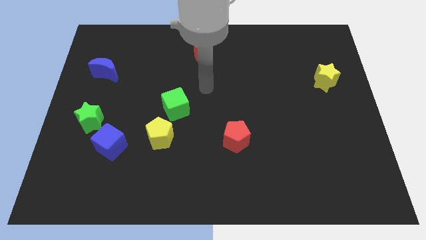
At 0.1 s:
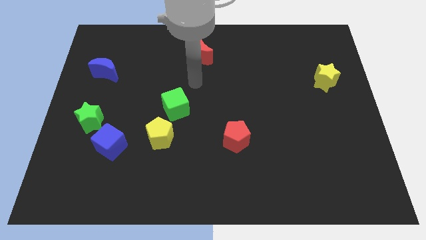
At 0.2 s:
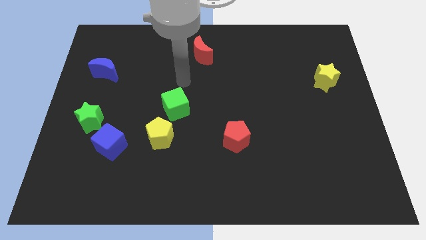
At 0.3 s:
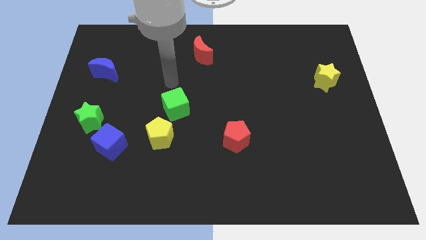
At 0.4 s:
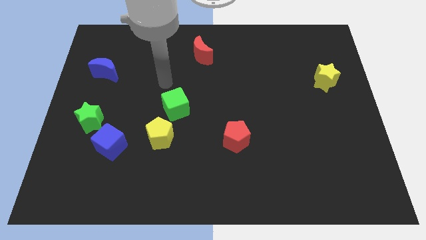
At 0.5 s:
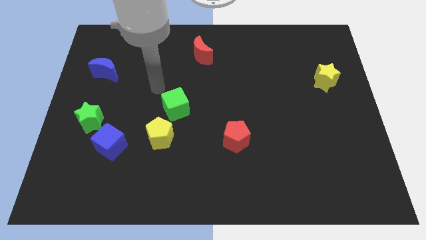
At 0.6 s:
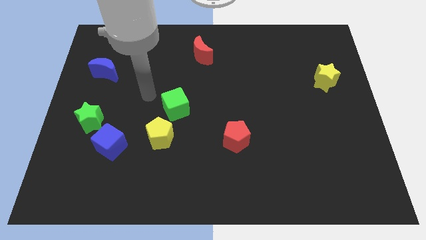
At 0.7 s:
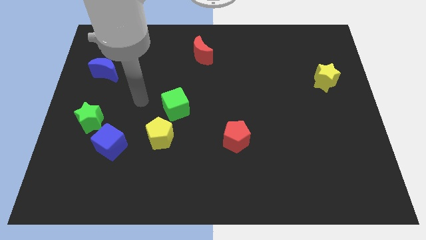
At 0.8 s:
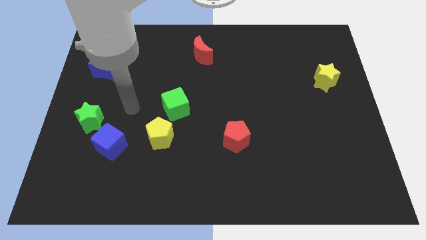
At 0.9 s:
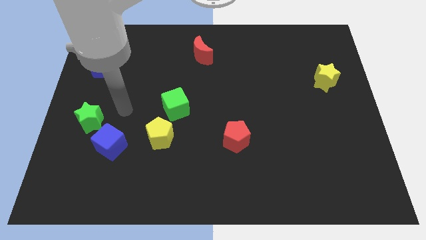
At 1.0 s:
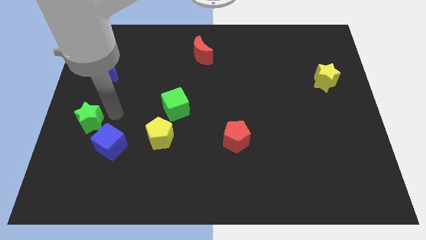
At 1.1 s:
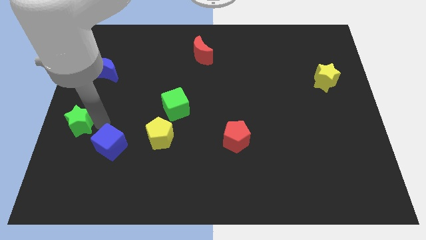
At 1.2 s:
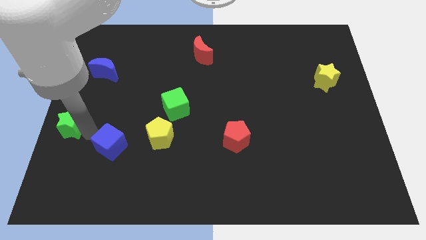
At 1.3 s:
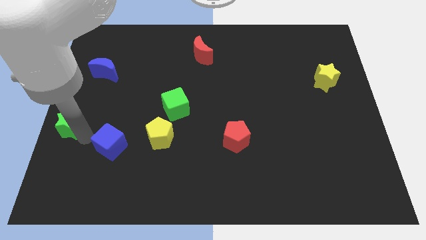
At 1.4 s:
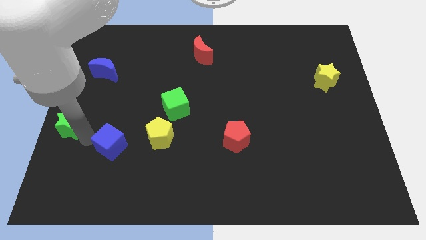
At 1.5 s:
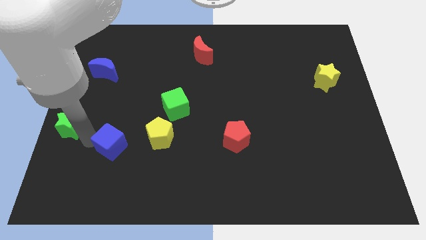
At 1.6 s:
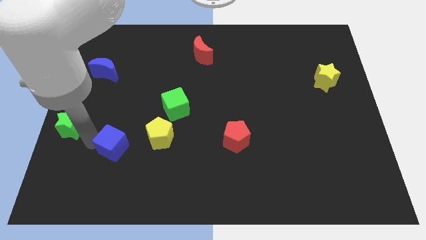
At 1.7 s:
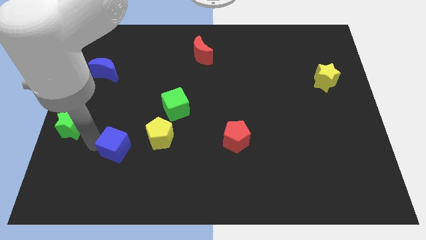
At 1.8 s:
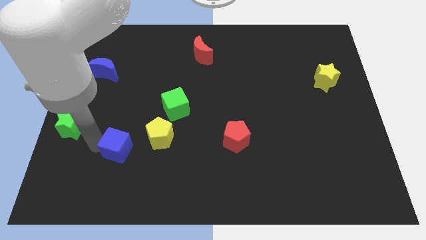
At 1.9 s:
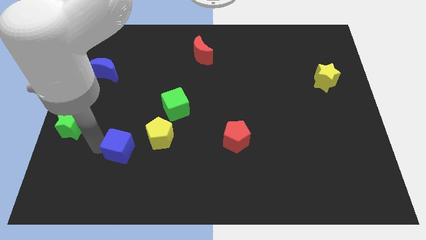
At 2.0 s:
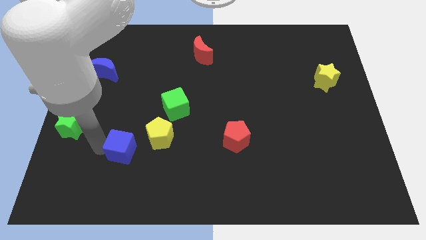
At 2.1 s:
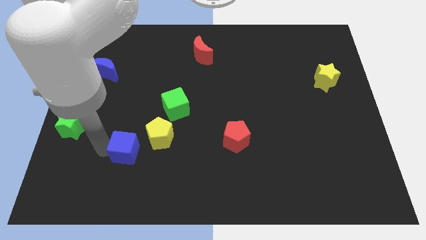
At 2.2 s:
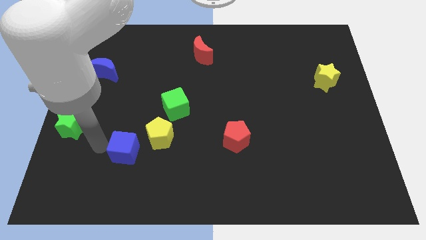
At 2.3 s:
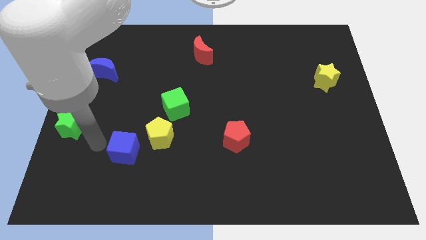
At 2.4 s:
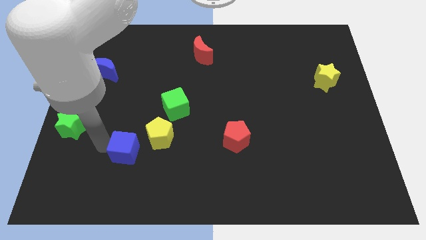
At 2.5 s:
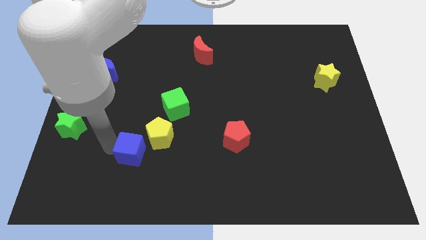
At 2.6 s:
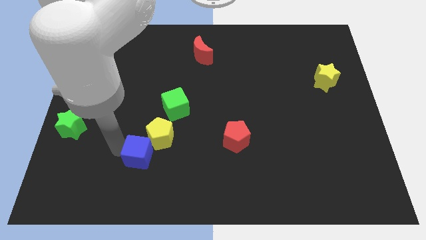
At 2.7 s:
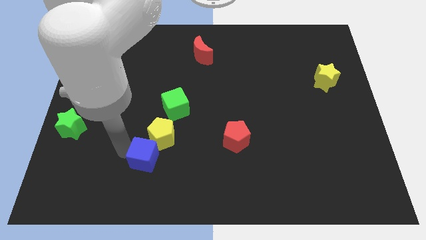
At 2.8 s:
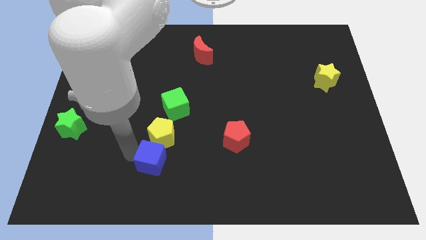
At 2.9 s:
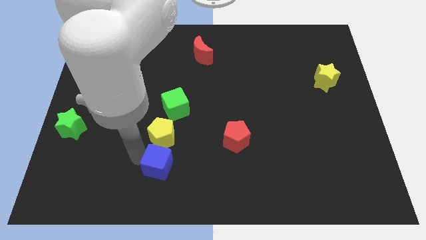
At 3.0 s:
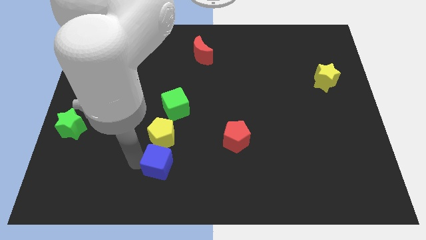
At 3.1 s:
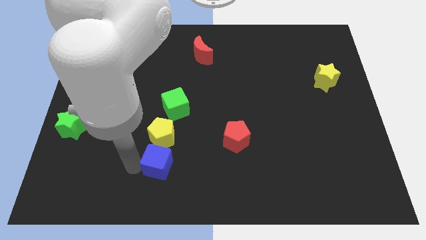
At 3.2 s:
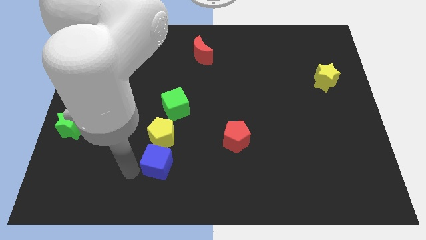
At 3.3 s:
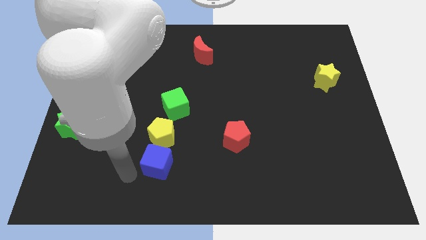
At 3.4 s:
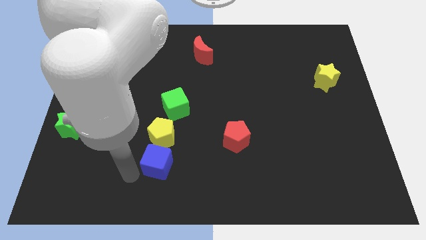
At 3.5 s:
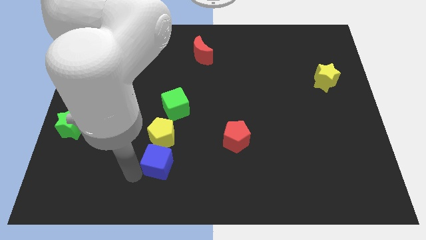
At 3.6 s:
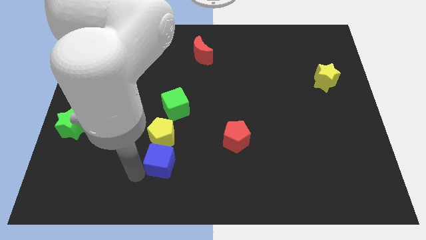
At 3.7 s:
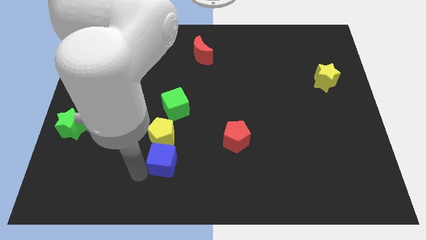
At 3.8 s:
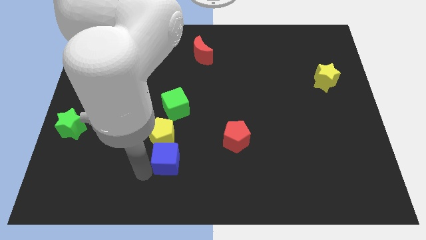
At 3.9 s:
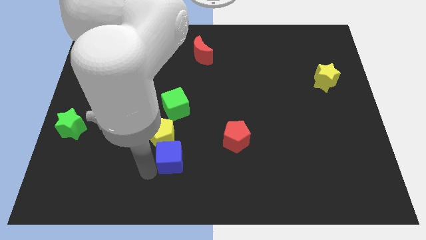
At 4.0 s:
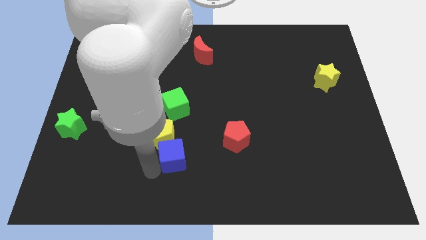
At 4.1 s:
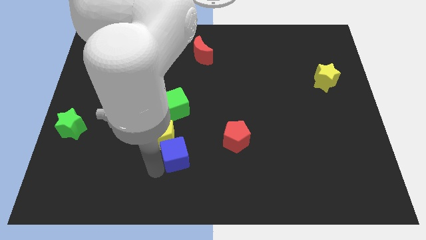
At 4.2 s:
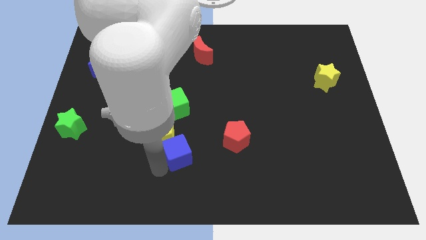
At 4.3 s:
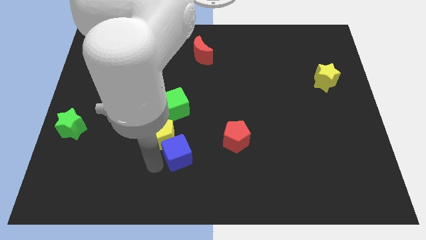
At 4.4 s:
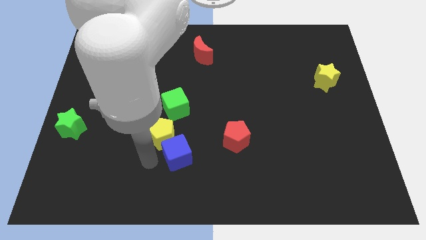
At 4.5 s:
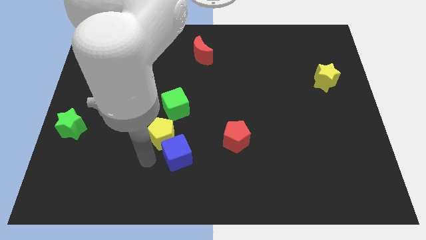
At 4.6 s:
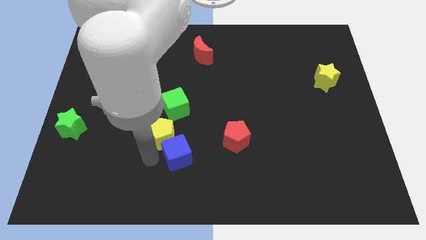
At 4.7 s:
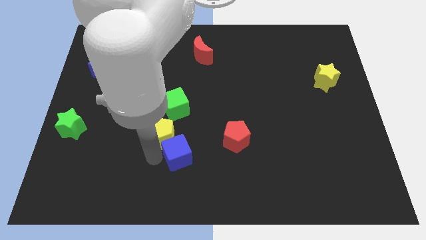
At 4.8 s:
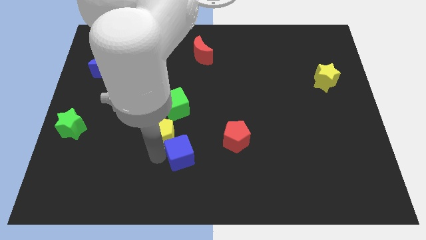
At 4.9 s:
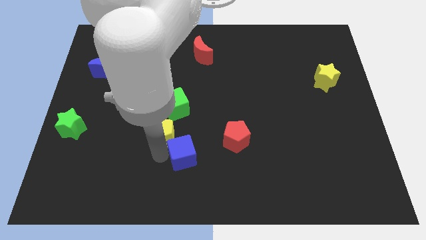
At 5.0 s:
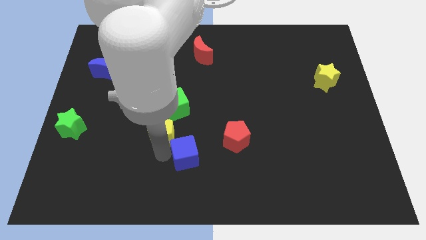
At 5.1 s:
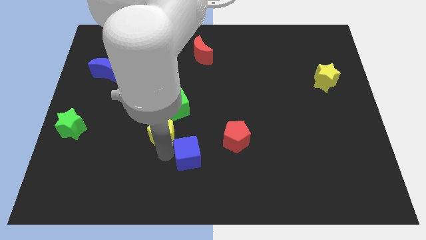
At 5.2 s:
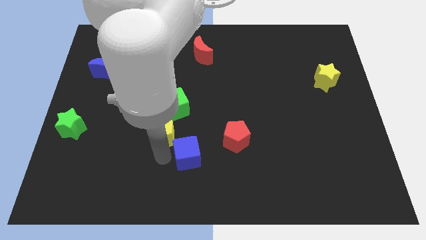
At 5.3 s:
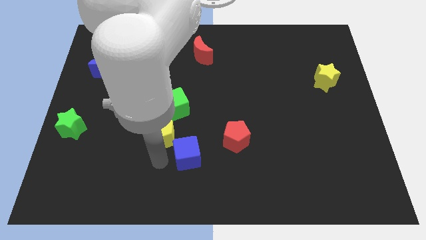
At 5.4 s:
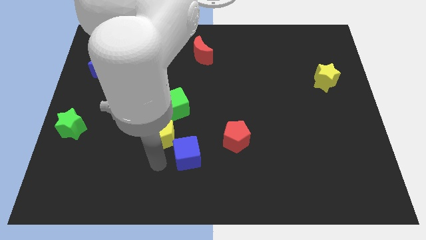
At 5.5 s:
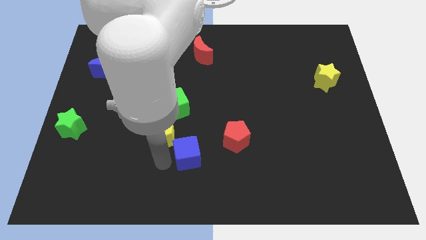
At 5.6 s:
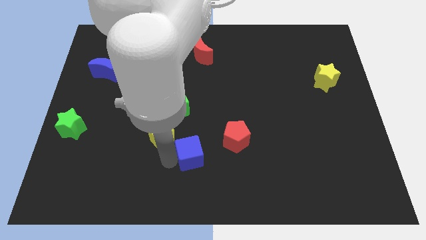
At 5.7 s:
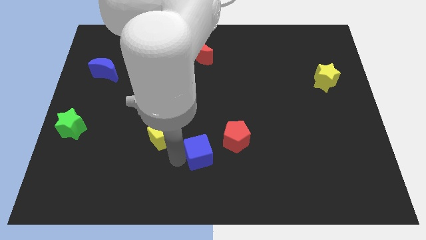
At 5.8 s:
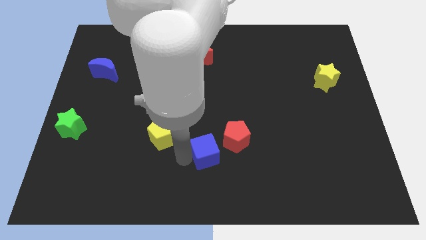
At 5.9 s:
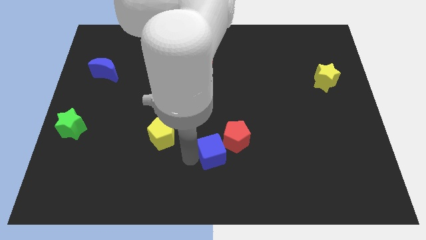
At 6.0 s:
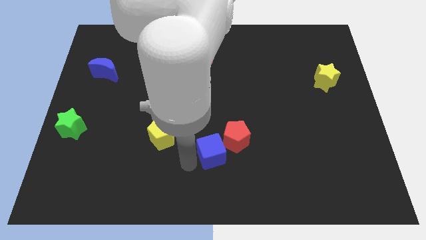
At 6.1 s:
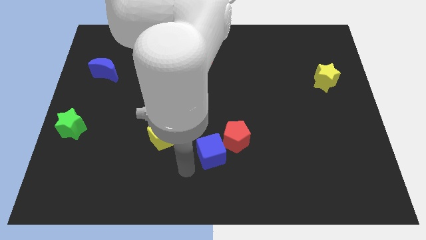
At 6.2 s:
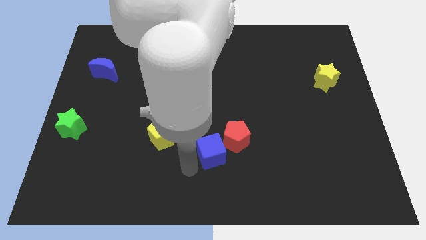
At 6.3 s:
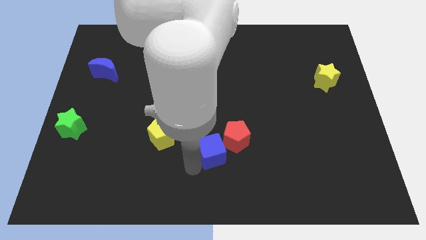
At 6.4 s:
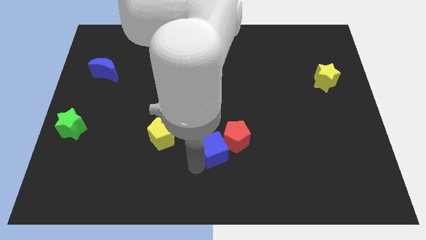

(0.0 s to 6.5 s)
push the blue cube next to the red pentagon

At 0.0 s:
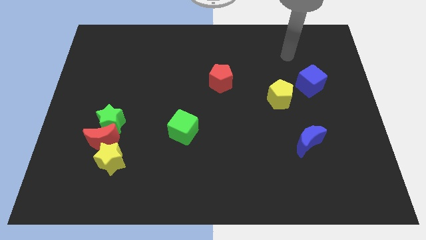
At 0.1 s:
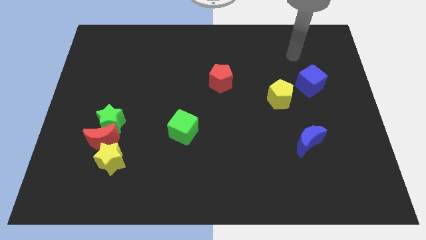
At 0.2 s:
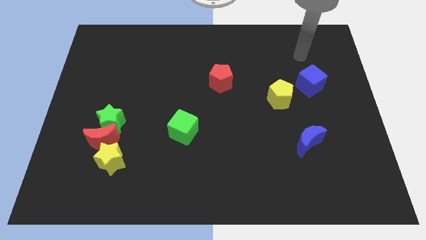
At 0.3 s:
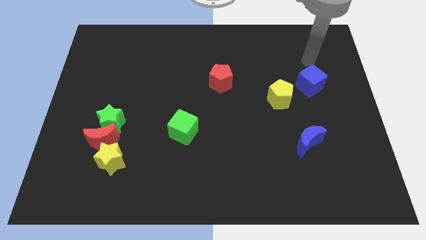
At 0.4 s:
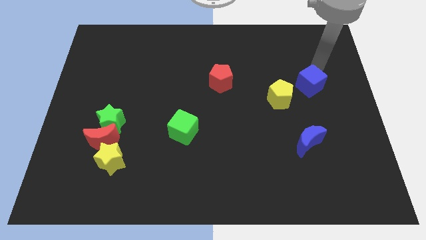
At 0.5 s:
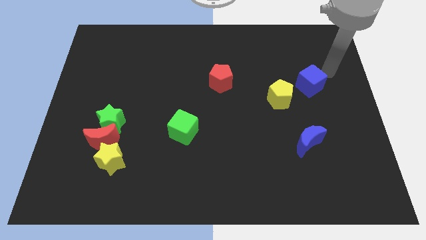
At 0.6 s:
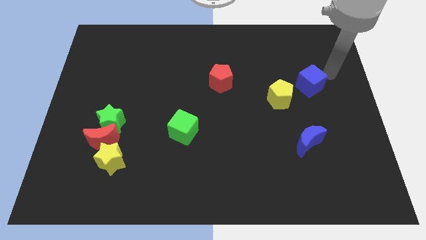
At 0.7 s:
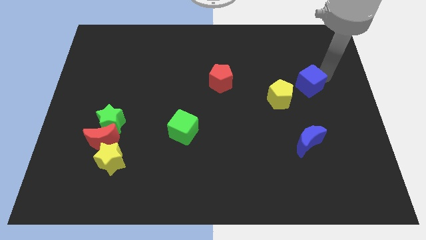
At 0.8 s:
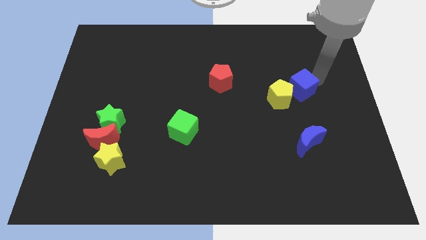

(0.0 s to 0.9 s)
push the blue cube next to the yellow pentagon
